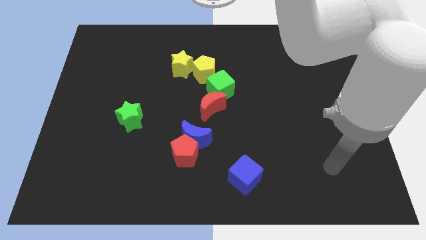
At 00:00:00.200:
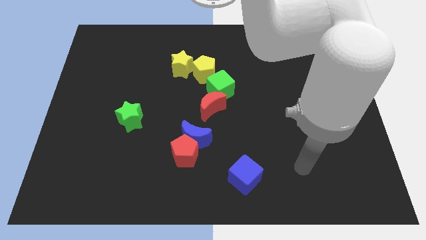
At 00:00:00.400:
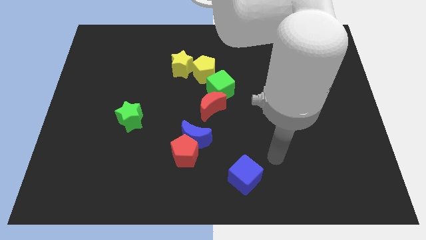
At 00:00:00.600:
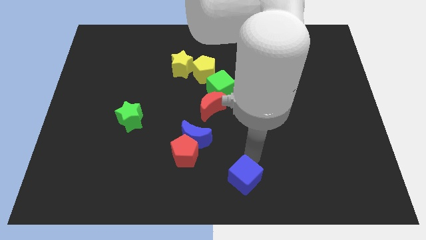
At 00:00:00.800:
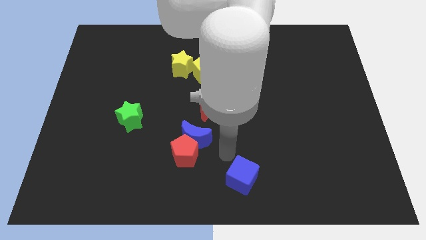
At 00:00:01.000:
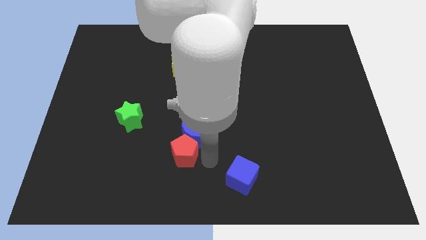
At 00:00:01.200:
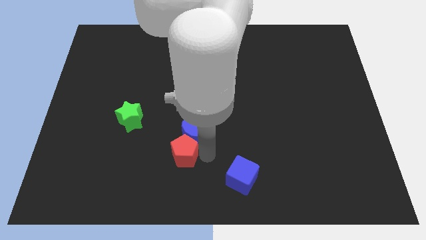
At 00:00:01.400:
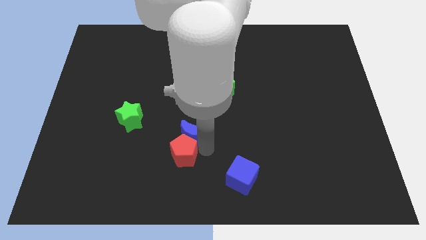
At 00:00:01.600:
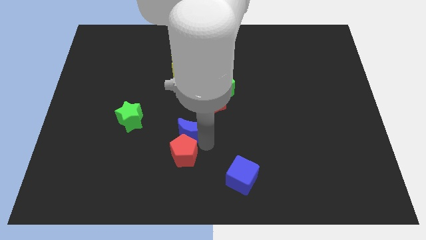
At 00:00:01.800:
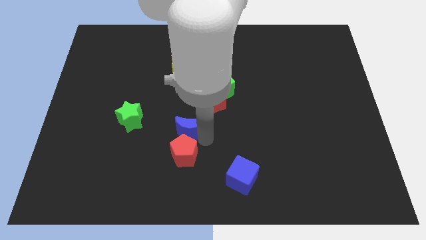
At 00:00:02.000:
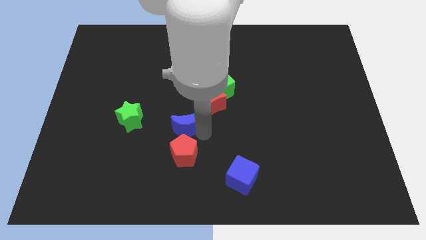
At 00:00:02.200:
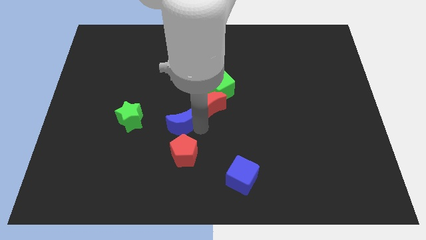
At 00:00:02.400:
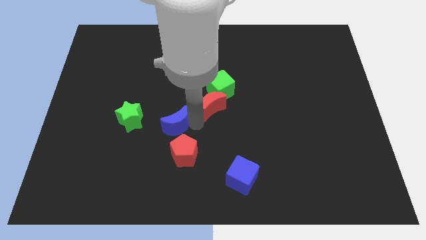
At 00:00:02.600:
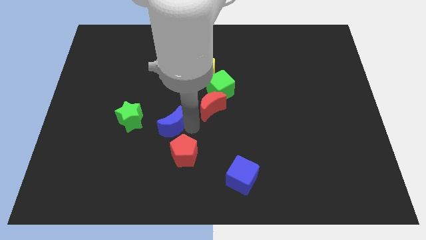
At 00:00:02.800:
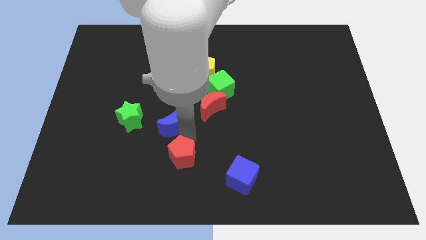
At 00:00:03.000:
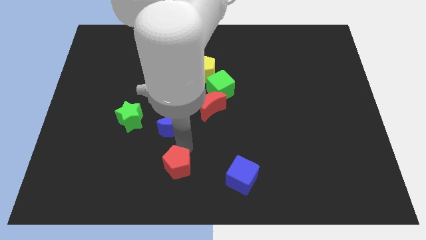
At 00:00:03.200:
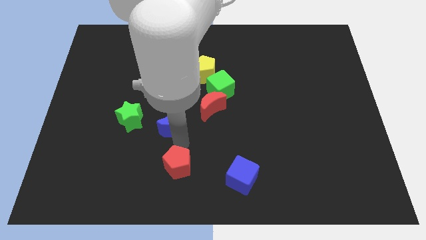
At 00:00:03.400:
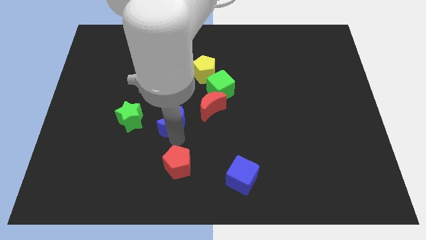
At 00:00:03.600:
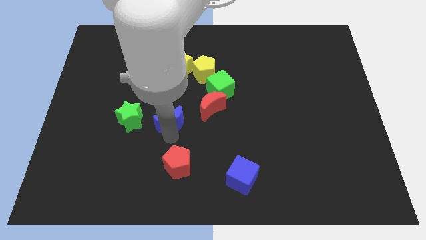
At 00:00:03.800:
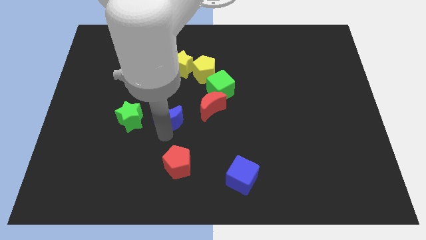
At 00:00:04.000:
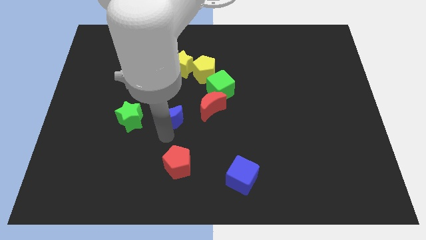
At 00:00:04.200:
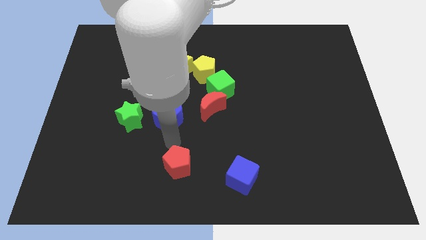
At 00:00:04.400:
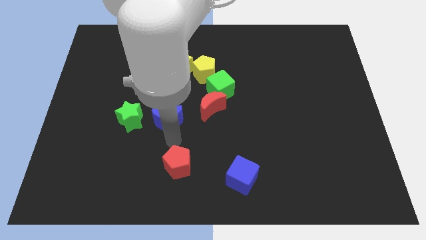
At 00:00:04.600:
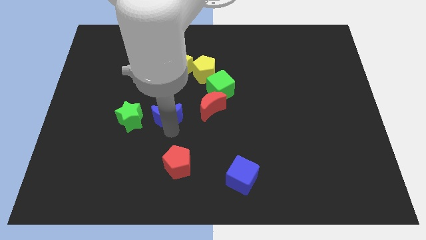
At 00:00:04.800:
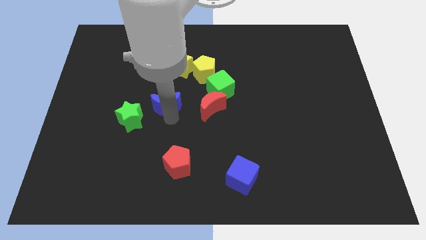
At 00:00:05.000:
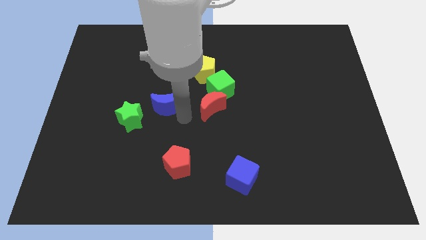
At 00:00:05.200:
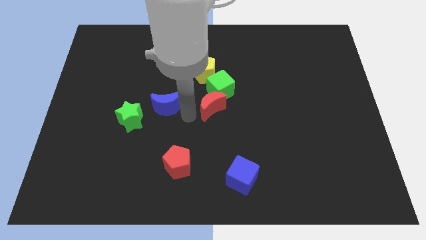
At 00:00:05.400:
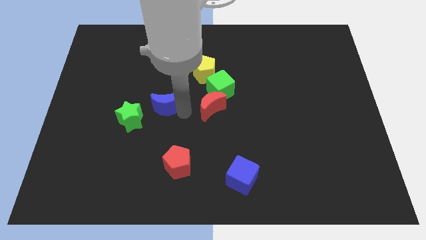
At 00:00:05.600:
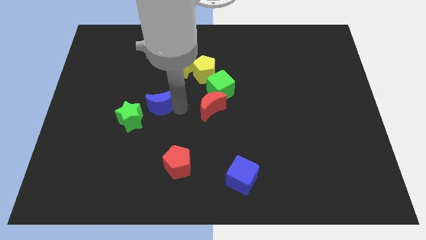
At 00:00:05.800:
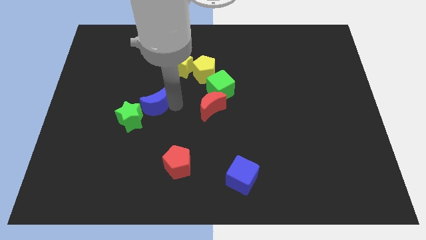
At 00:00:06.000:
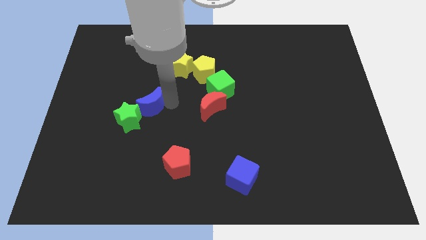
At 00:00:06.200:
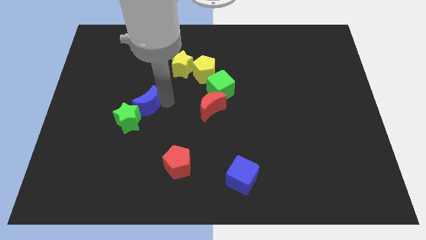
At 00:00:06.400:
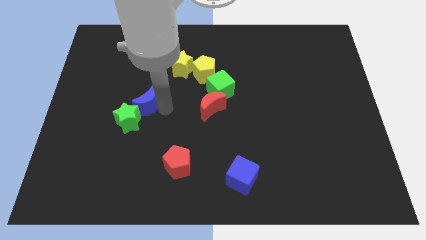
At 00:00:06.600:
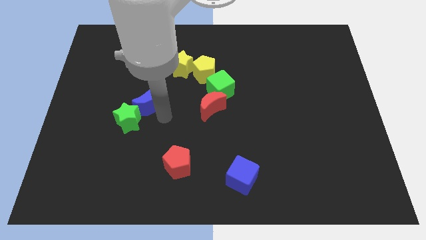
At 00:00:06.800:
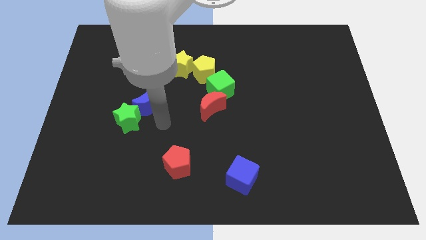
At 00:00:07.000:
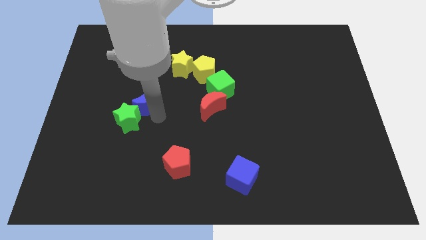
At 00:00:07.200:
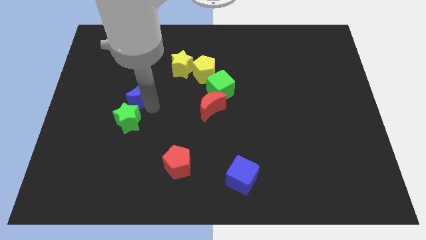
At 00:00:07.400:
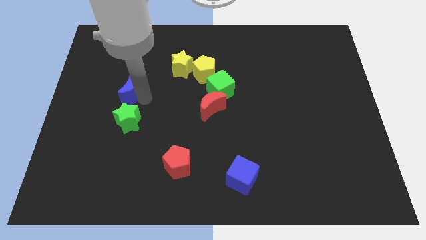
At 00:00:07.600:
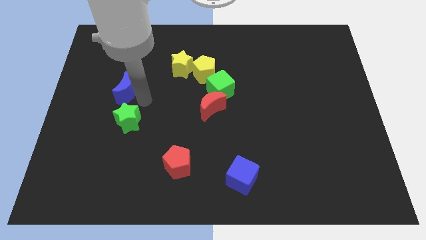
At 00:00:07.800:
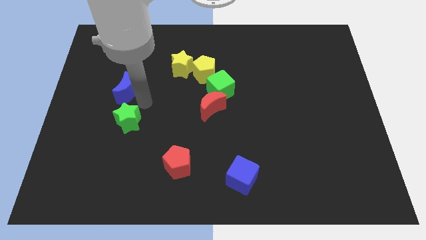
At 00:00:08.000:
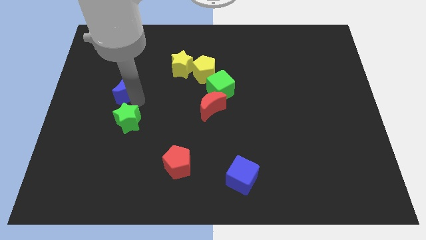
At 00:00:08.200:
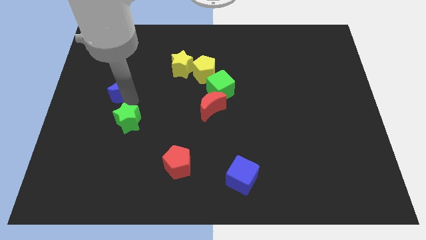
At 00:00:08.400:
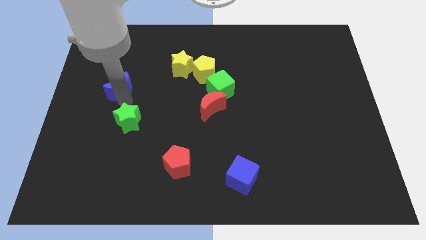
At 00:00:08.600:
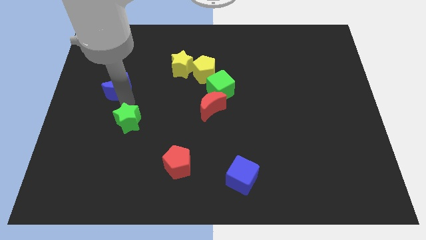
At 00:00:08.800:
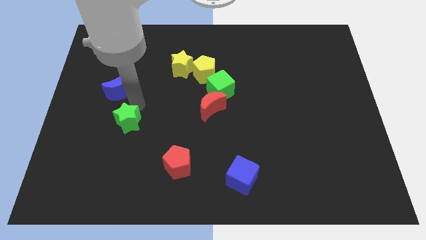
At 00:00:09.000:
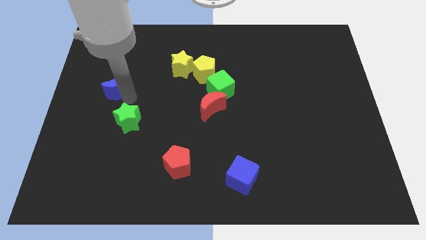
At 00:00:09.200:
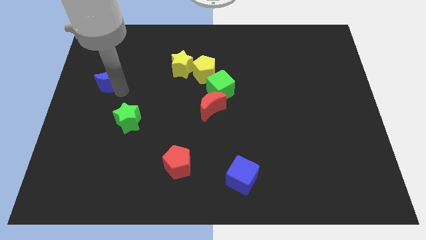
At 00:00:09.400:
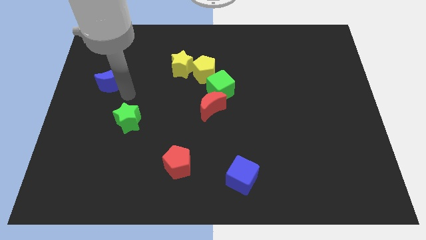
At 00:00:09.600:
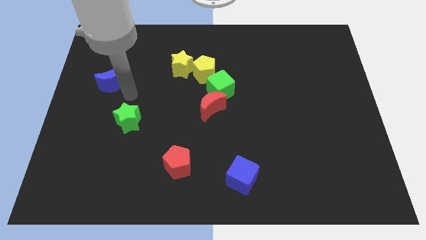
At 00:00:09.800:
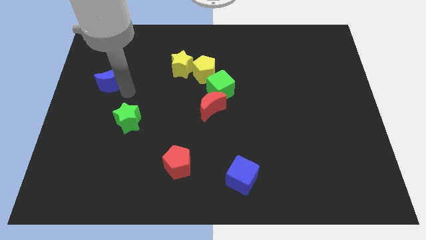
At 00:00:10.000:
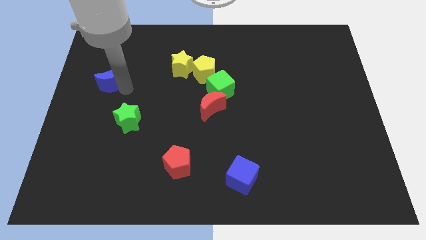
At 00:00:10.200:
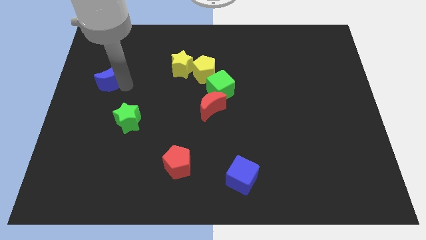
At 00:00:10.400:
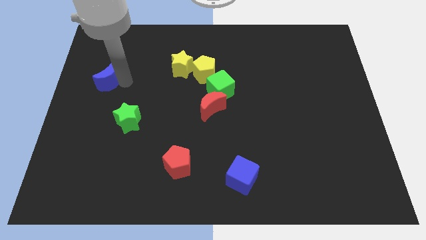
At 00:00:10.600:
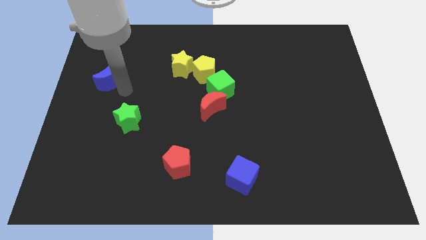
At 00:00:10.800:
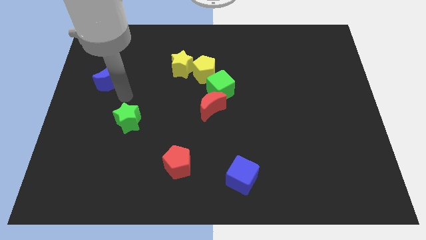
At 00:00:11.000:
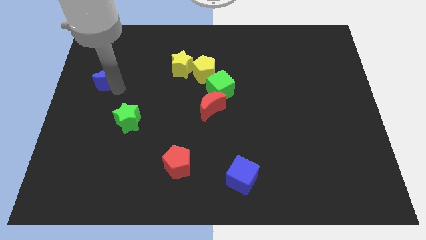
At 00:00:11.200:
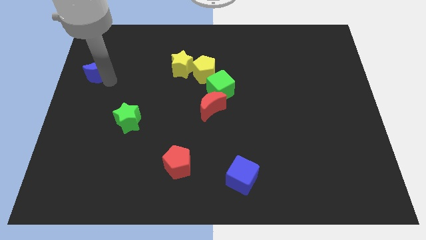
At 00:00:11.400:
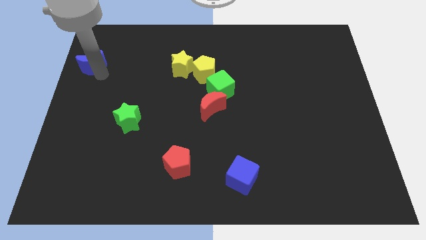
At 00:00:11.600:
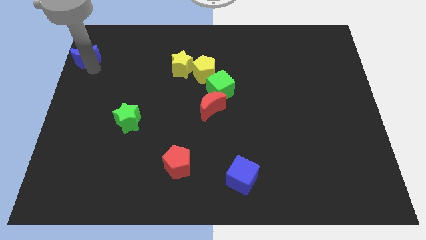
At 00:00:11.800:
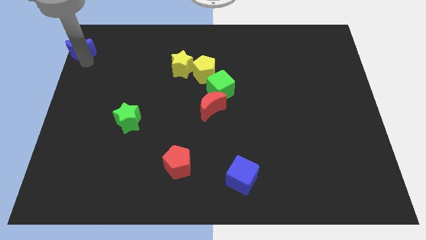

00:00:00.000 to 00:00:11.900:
put the blue moon to the top left corner

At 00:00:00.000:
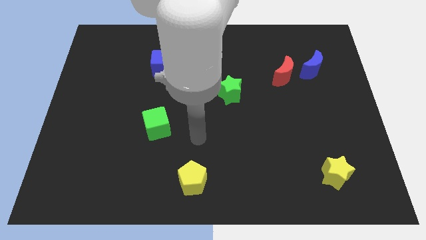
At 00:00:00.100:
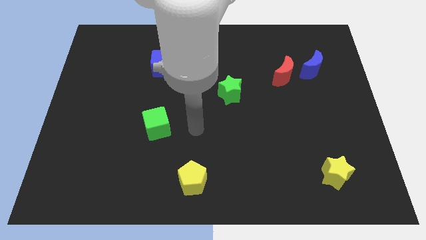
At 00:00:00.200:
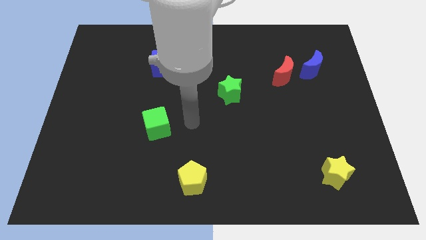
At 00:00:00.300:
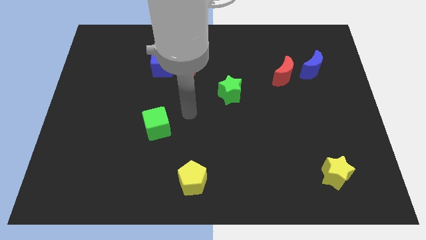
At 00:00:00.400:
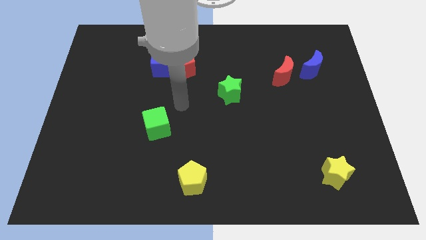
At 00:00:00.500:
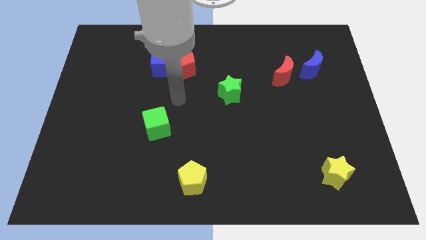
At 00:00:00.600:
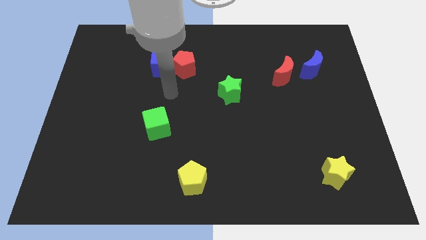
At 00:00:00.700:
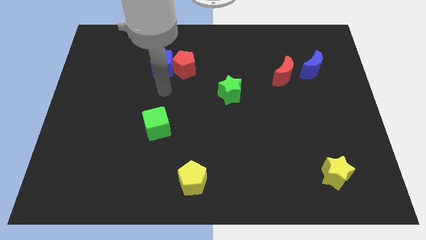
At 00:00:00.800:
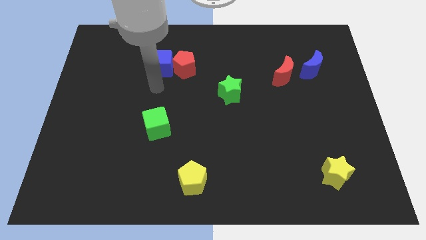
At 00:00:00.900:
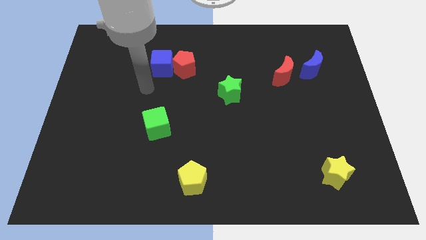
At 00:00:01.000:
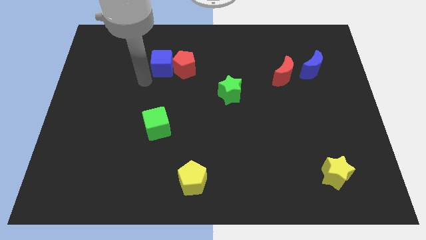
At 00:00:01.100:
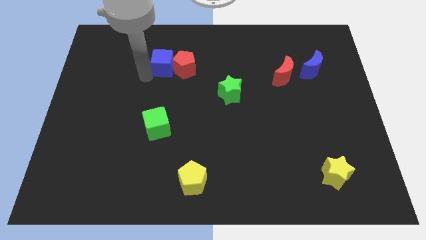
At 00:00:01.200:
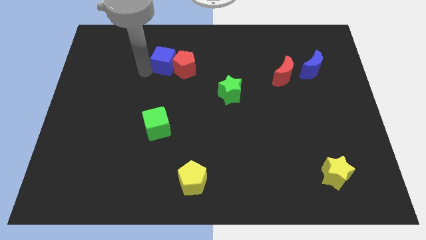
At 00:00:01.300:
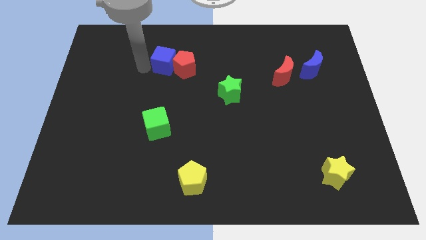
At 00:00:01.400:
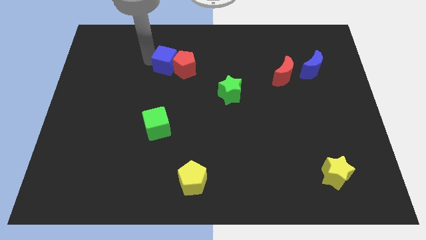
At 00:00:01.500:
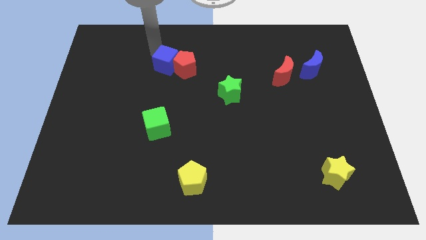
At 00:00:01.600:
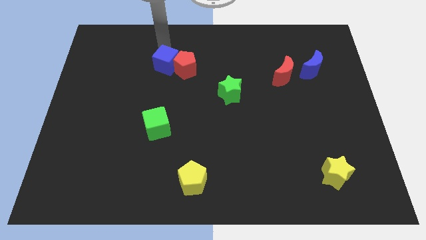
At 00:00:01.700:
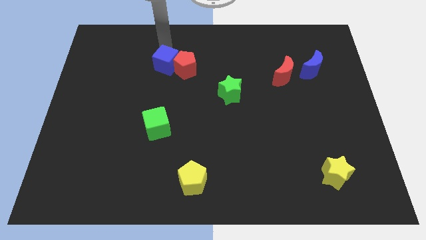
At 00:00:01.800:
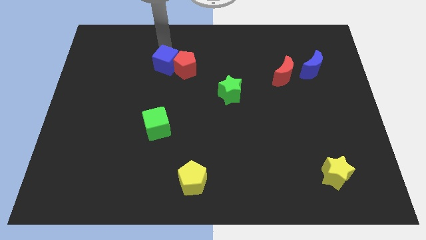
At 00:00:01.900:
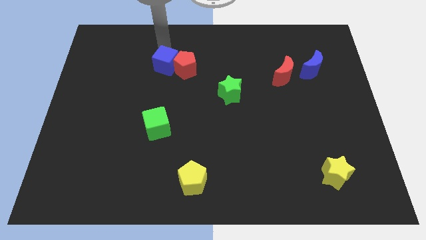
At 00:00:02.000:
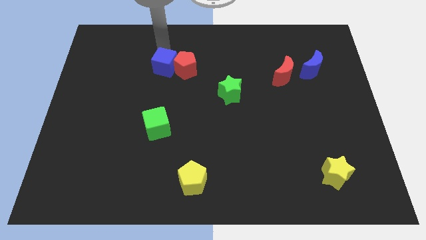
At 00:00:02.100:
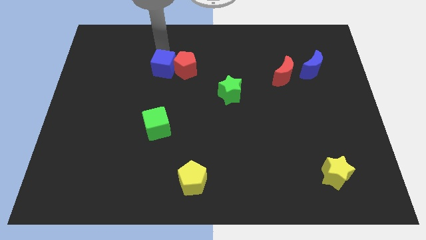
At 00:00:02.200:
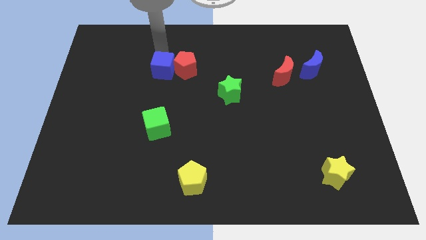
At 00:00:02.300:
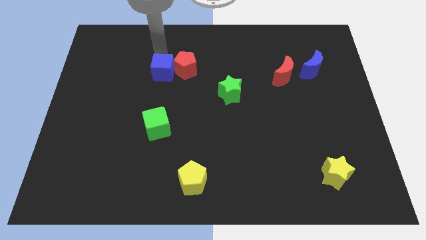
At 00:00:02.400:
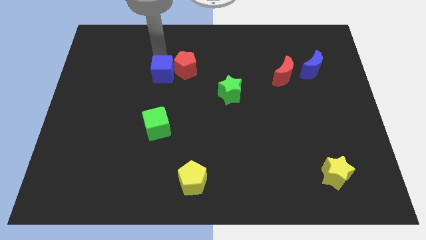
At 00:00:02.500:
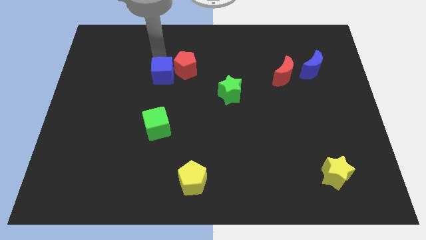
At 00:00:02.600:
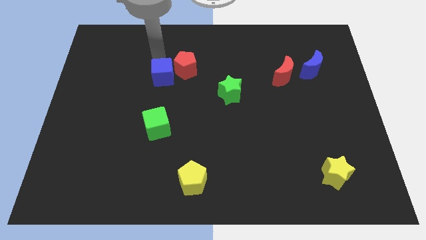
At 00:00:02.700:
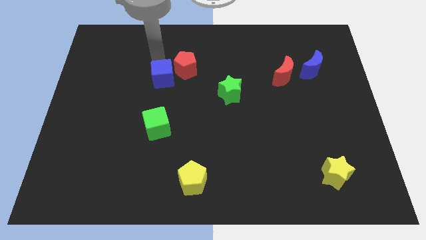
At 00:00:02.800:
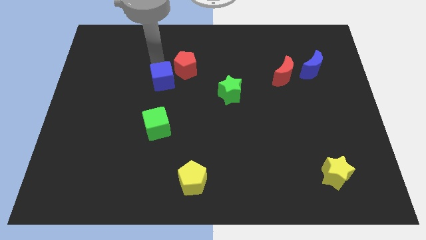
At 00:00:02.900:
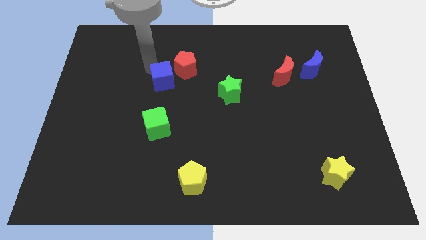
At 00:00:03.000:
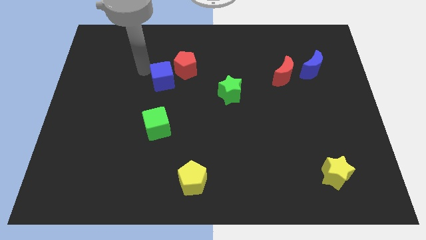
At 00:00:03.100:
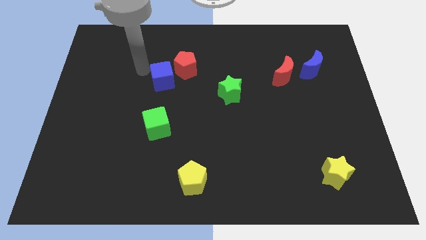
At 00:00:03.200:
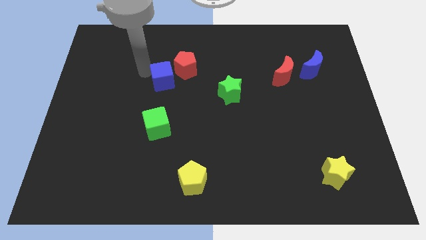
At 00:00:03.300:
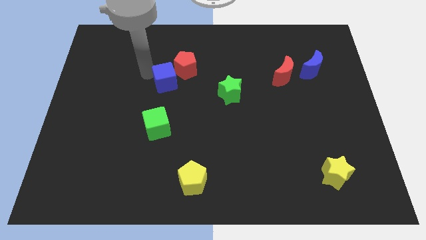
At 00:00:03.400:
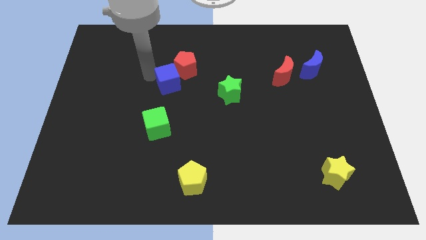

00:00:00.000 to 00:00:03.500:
move the blue cube to the center
